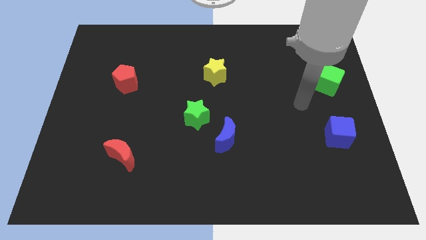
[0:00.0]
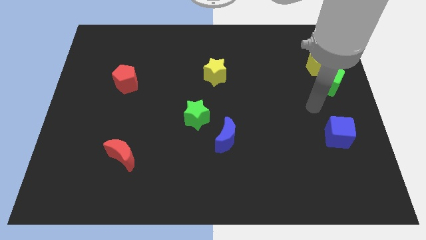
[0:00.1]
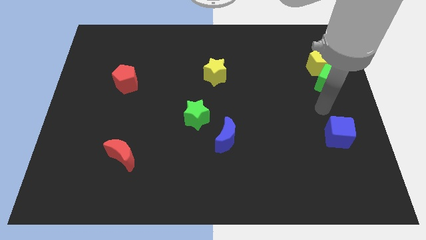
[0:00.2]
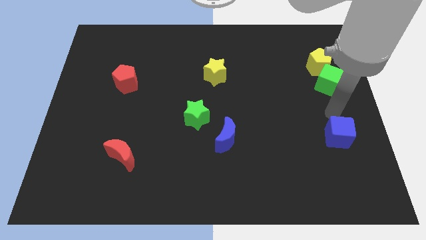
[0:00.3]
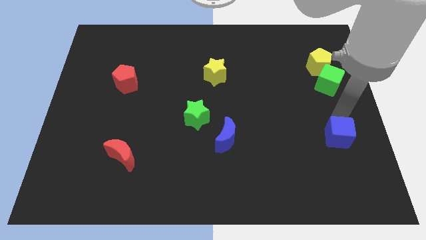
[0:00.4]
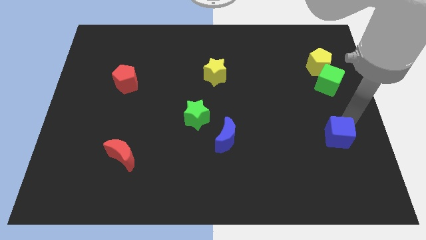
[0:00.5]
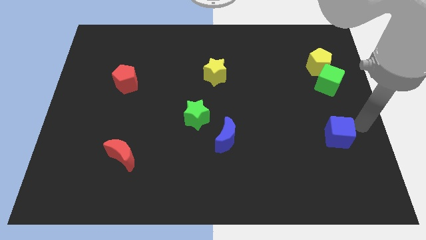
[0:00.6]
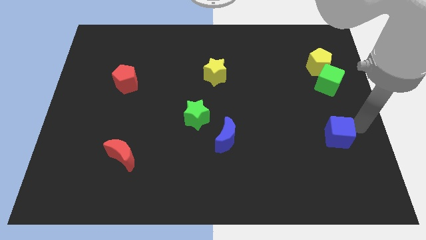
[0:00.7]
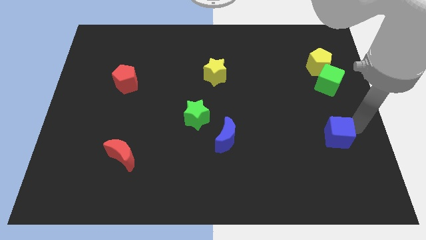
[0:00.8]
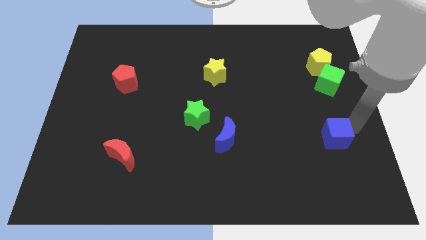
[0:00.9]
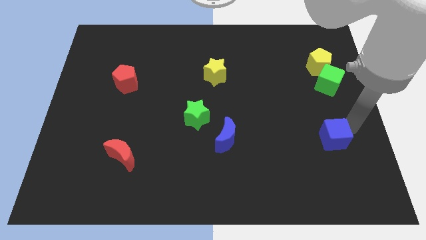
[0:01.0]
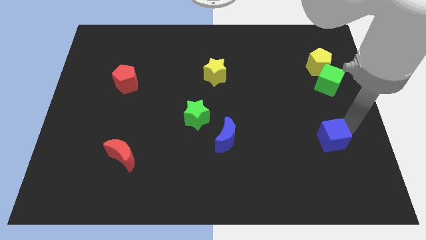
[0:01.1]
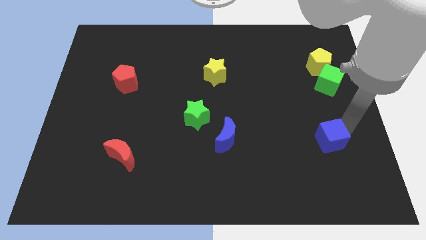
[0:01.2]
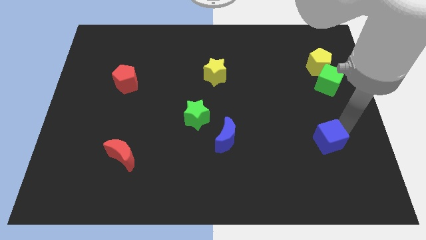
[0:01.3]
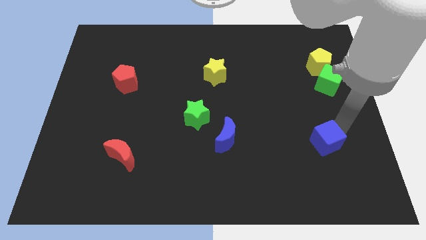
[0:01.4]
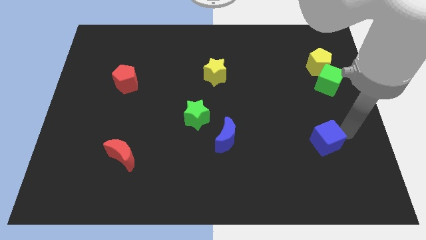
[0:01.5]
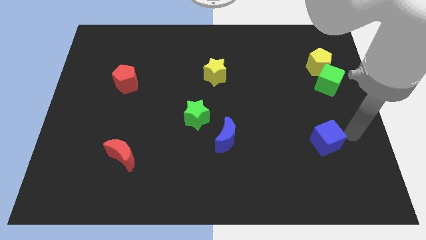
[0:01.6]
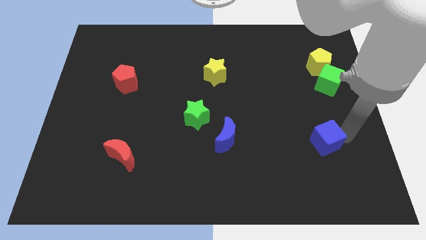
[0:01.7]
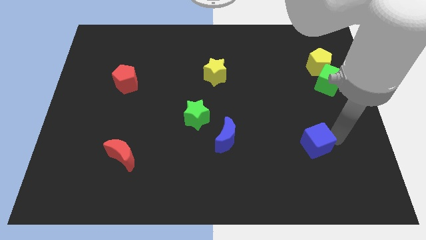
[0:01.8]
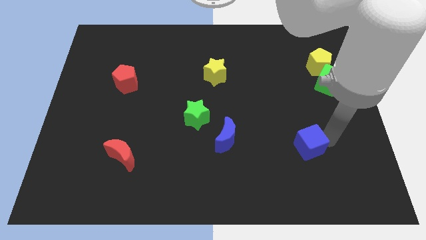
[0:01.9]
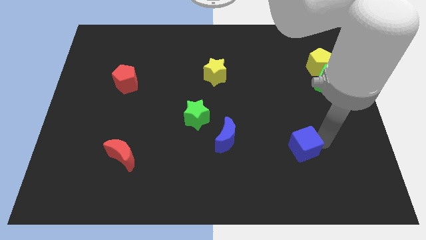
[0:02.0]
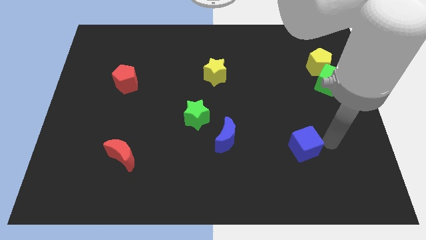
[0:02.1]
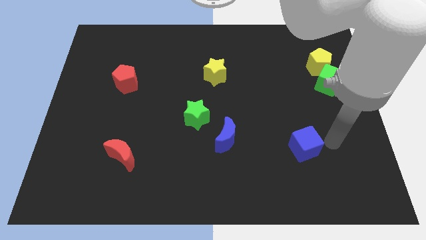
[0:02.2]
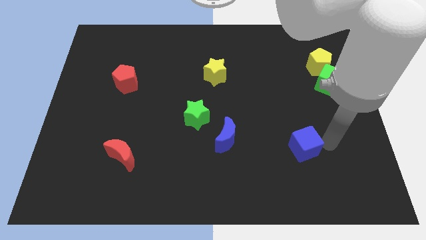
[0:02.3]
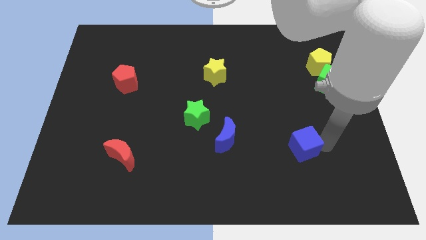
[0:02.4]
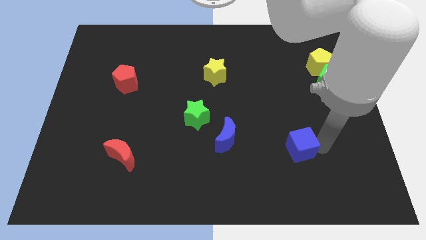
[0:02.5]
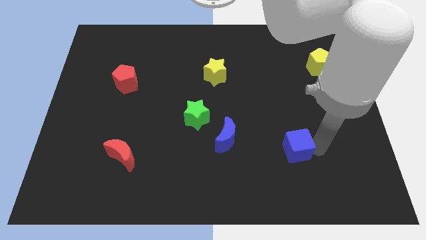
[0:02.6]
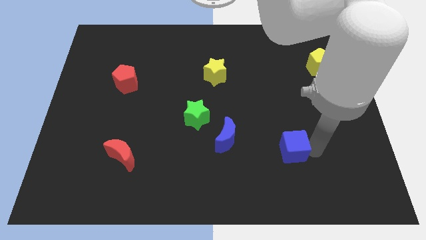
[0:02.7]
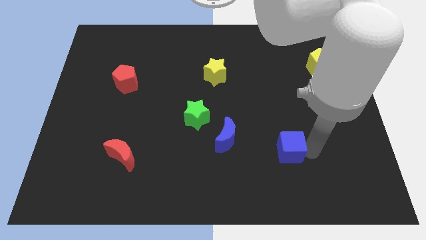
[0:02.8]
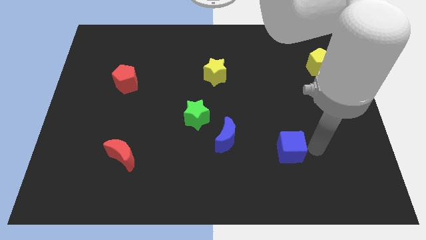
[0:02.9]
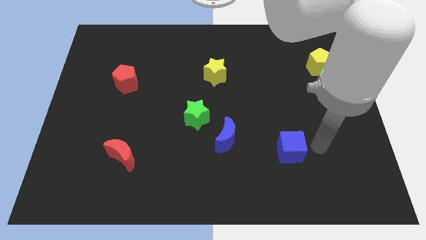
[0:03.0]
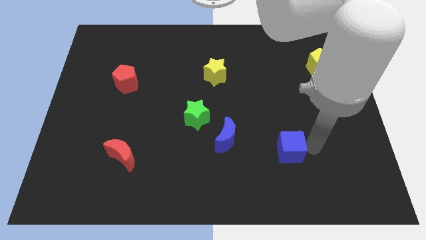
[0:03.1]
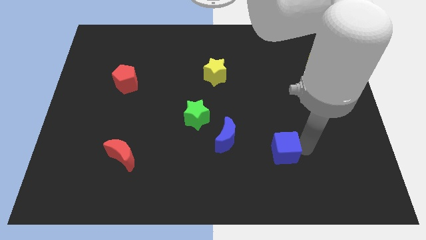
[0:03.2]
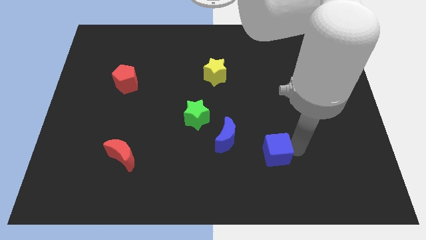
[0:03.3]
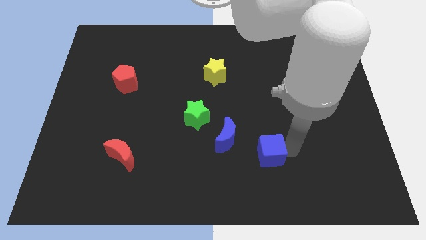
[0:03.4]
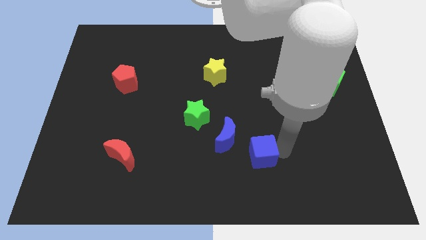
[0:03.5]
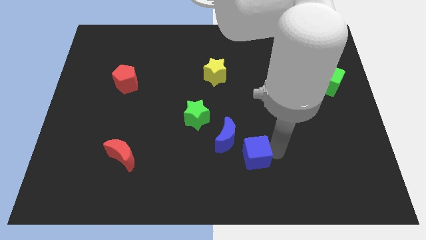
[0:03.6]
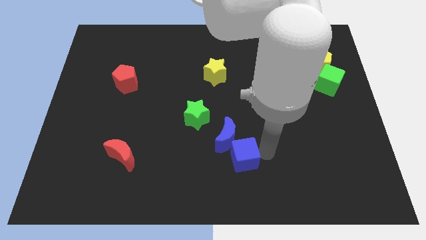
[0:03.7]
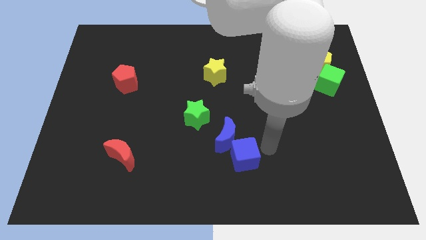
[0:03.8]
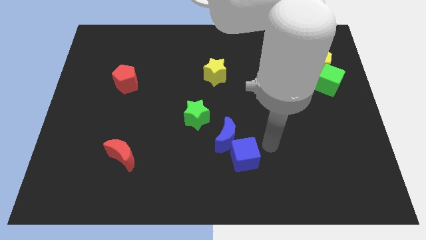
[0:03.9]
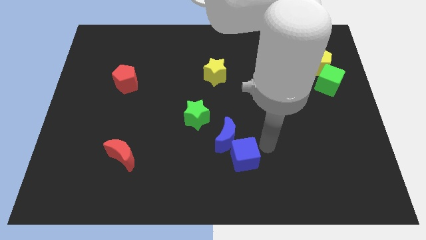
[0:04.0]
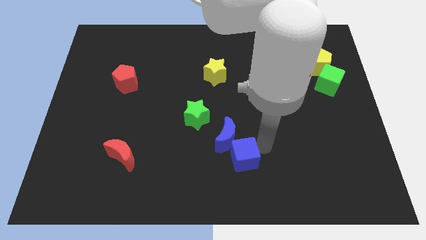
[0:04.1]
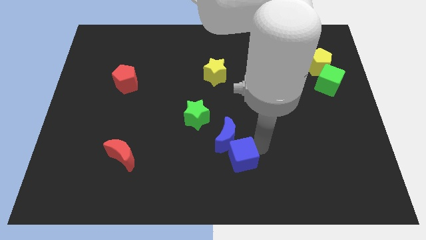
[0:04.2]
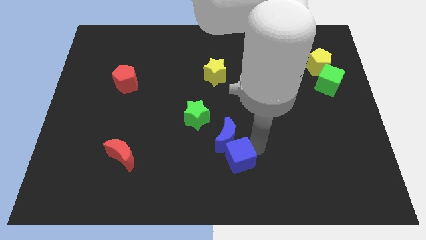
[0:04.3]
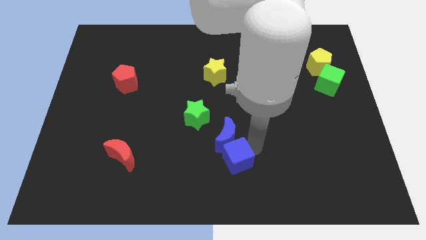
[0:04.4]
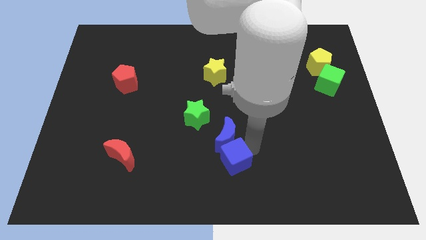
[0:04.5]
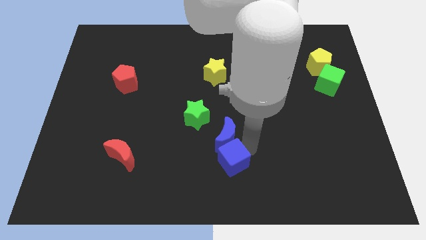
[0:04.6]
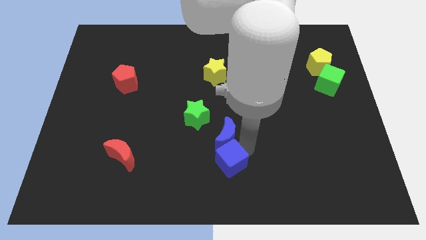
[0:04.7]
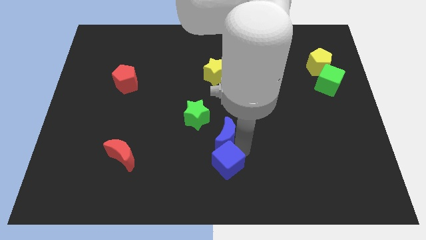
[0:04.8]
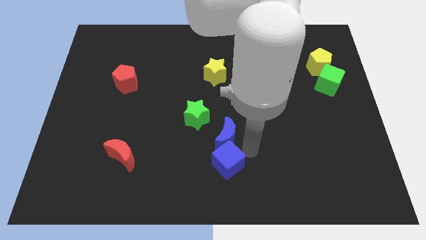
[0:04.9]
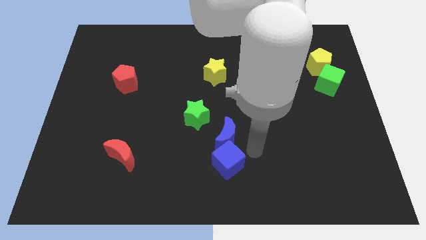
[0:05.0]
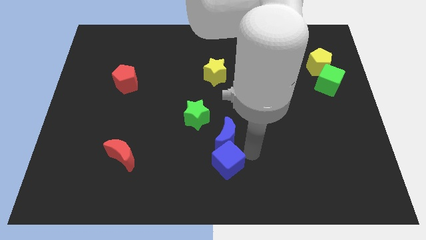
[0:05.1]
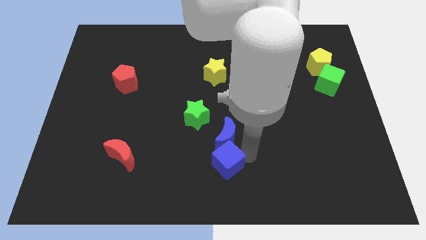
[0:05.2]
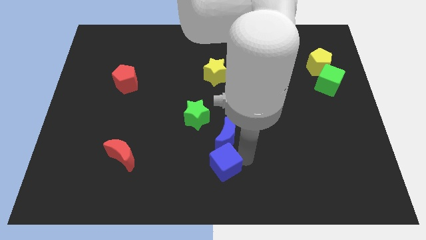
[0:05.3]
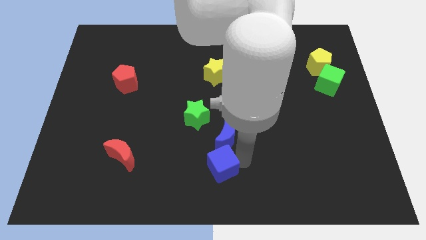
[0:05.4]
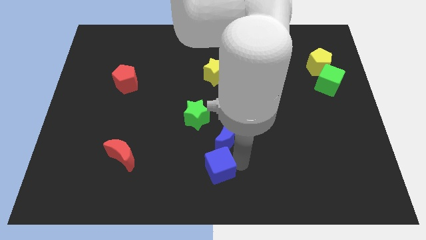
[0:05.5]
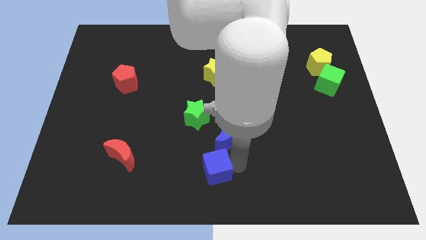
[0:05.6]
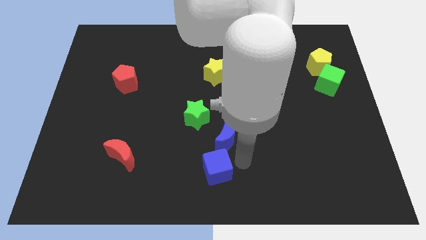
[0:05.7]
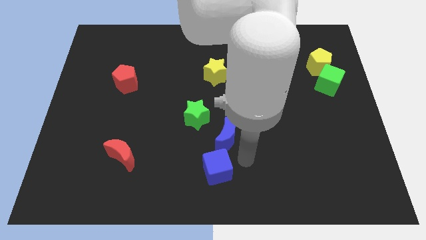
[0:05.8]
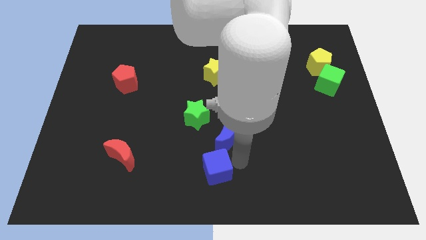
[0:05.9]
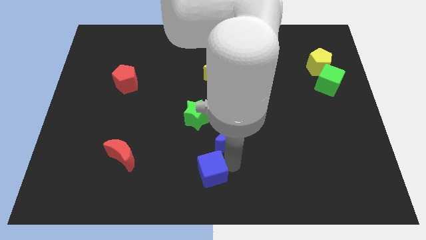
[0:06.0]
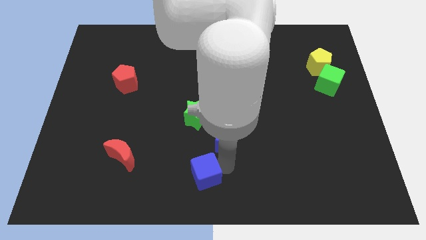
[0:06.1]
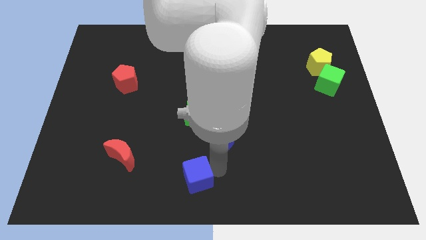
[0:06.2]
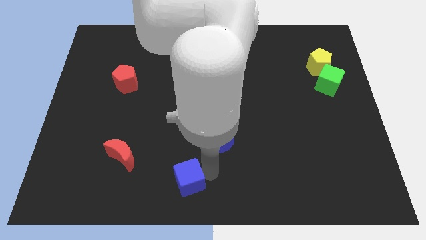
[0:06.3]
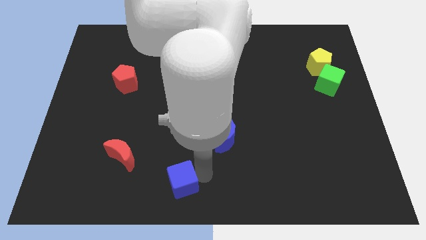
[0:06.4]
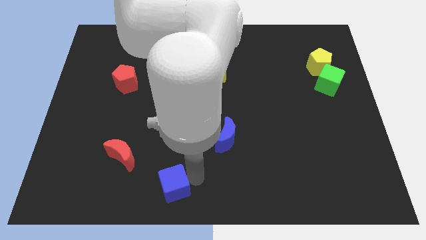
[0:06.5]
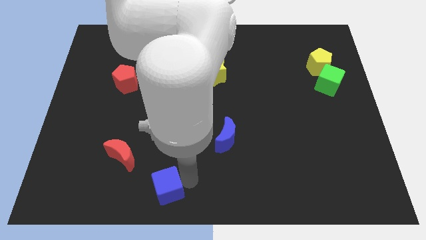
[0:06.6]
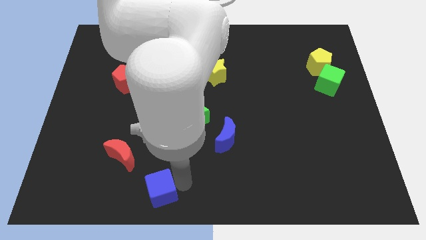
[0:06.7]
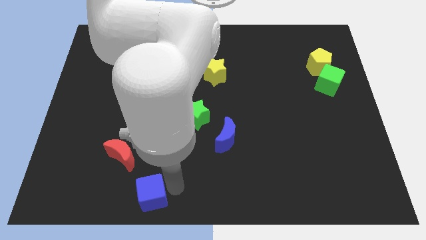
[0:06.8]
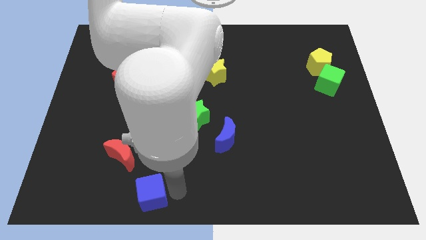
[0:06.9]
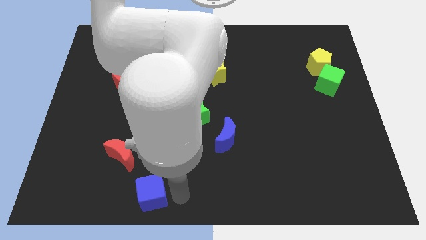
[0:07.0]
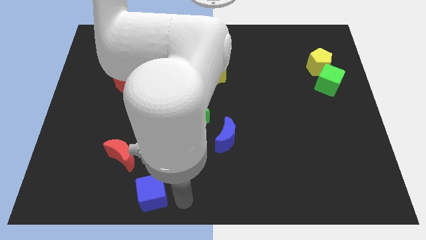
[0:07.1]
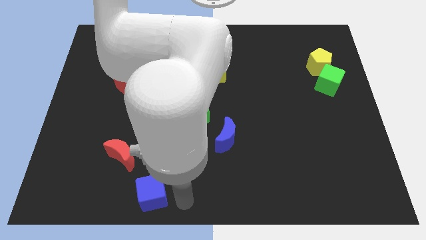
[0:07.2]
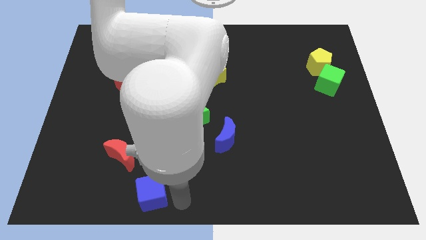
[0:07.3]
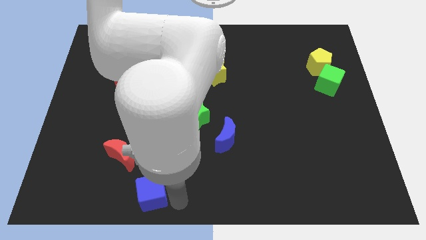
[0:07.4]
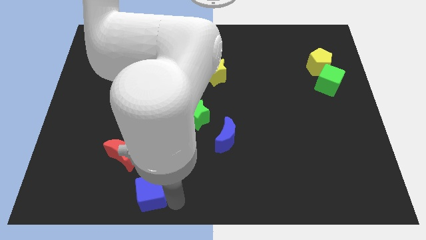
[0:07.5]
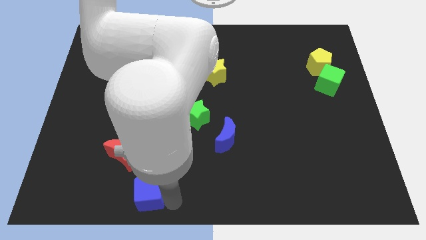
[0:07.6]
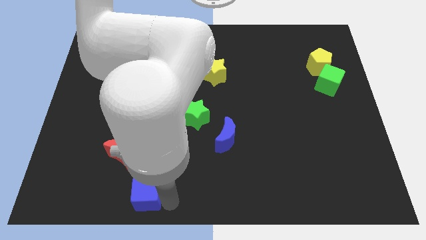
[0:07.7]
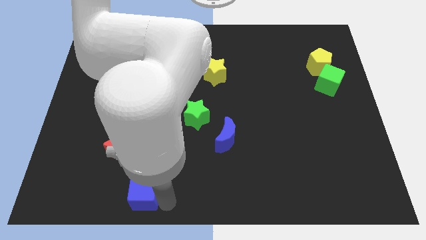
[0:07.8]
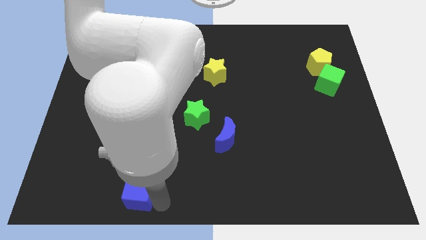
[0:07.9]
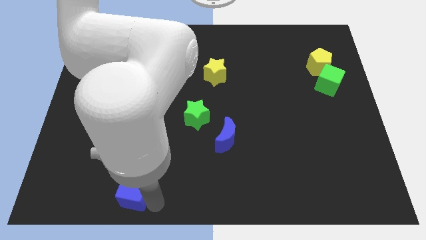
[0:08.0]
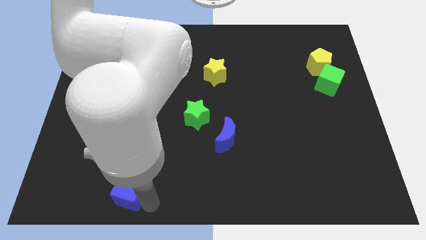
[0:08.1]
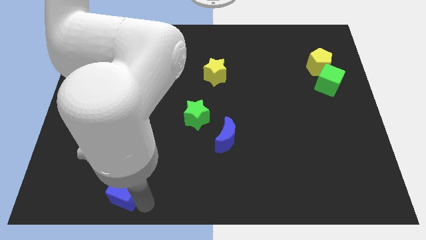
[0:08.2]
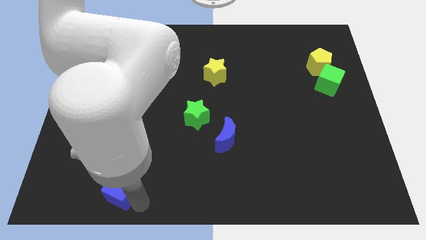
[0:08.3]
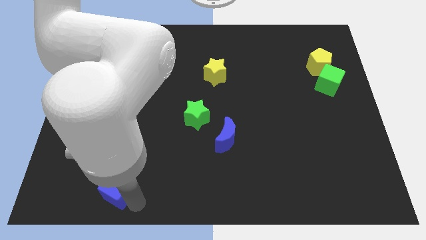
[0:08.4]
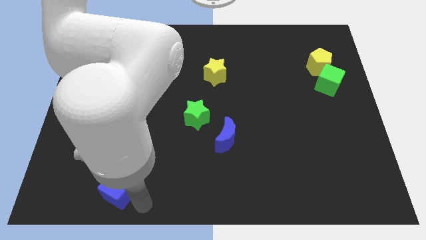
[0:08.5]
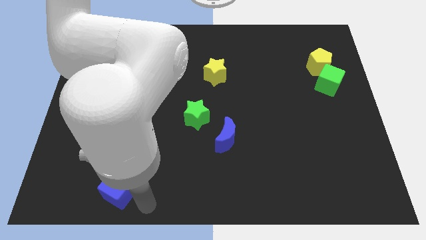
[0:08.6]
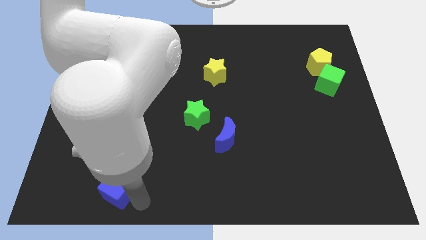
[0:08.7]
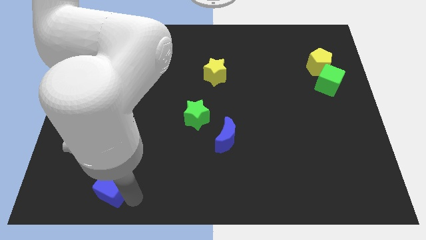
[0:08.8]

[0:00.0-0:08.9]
move the blue cube to the bottom left of the red moon
